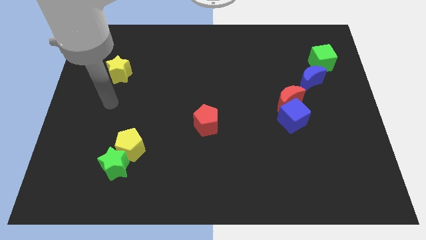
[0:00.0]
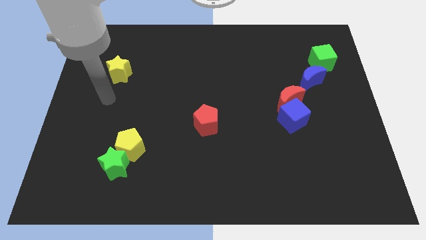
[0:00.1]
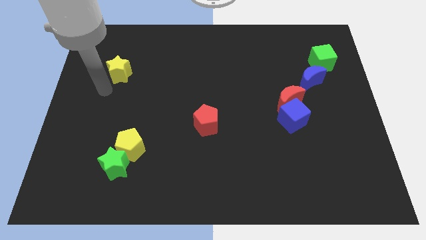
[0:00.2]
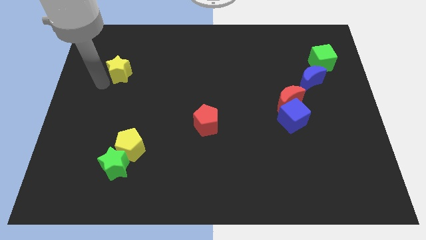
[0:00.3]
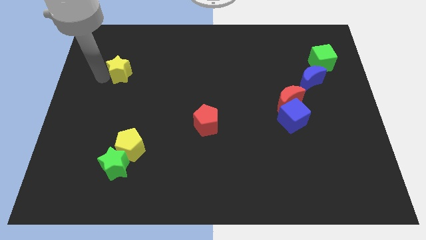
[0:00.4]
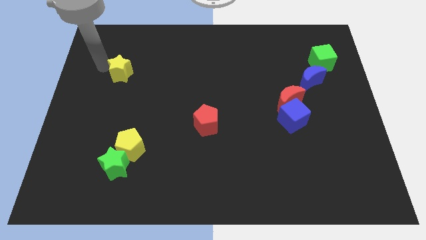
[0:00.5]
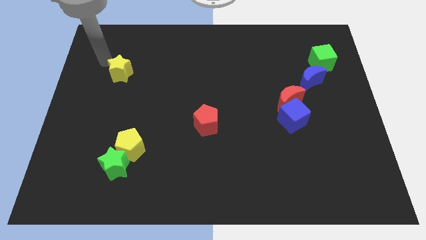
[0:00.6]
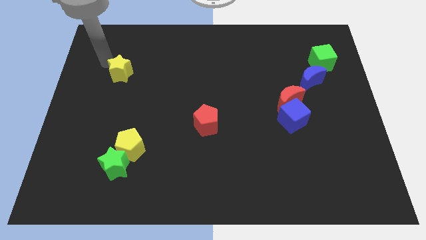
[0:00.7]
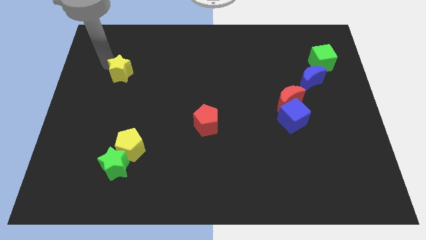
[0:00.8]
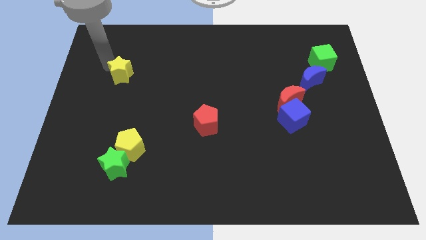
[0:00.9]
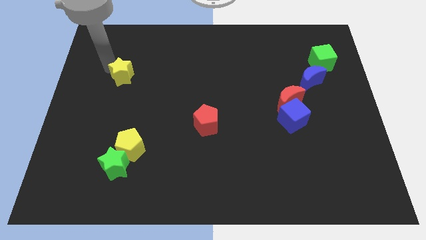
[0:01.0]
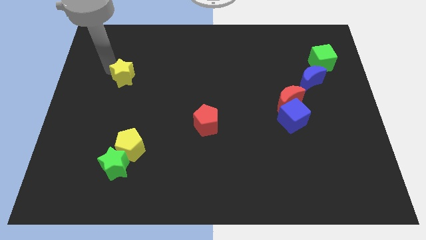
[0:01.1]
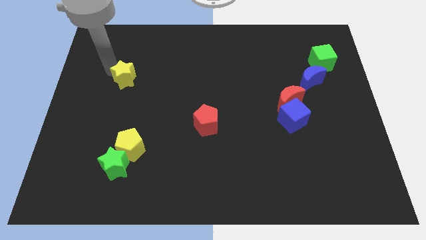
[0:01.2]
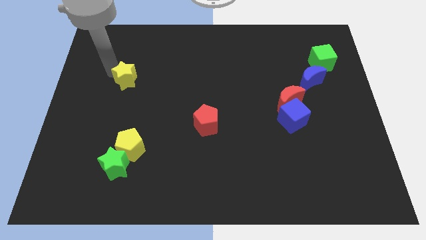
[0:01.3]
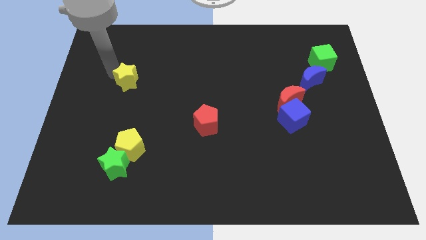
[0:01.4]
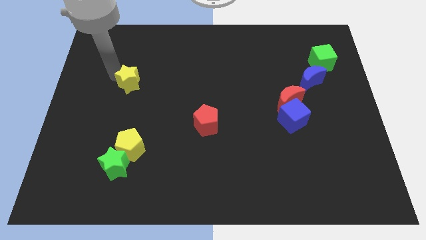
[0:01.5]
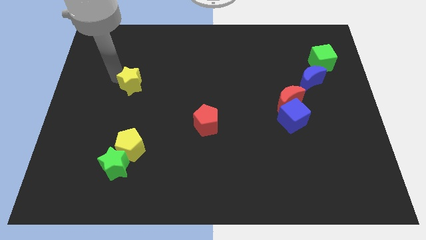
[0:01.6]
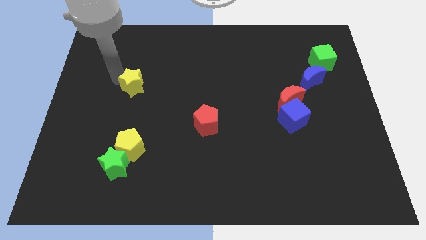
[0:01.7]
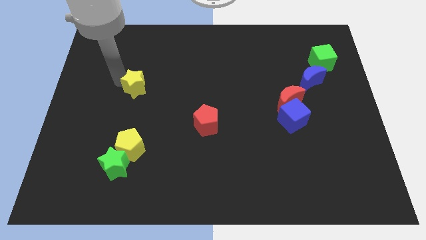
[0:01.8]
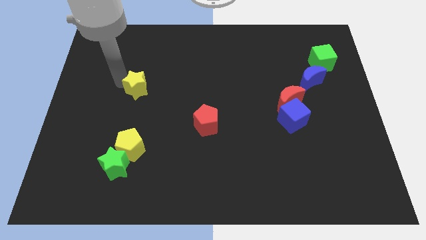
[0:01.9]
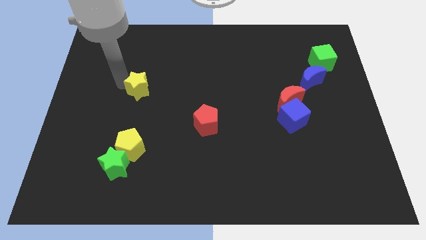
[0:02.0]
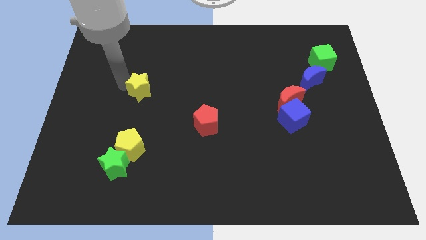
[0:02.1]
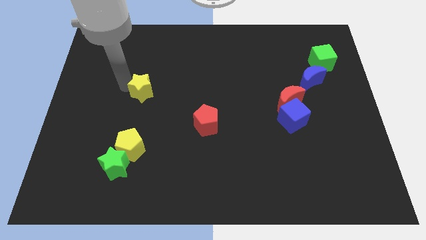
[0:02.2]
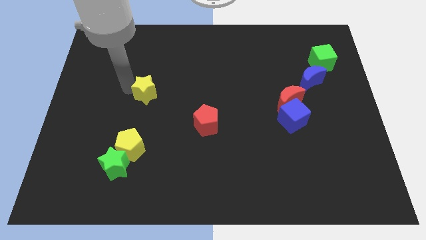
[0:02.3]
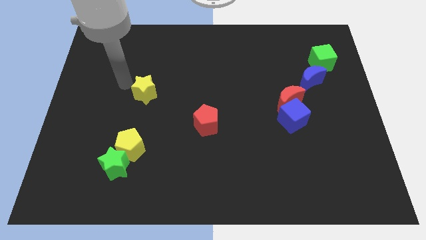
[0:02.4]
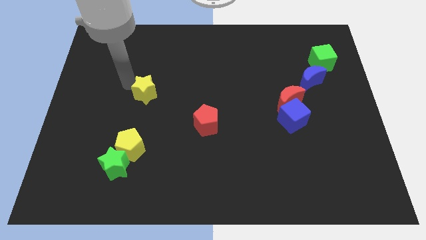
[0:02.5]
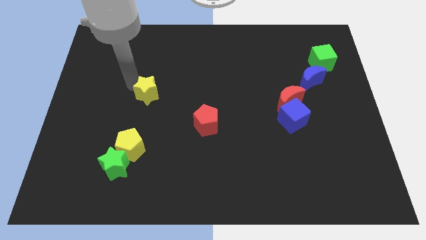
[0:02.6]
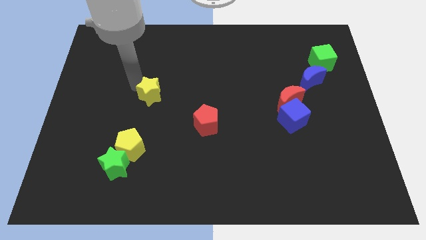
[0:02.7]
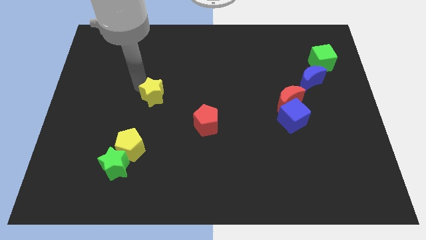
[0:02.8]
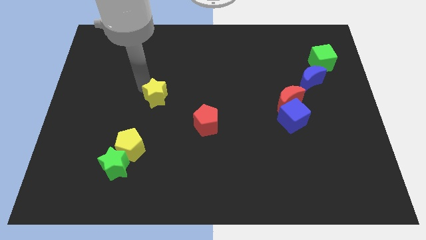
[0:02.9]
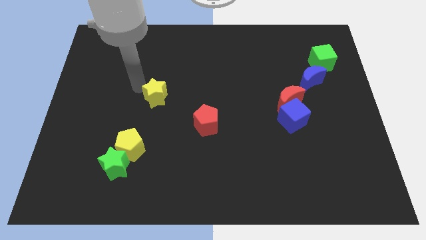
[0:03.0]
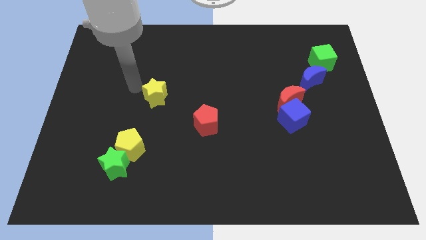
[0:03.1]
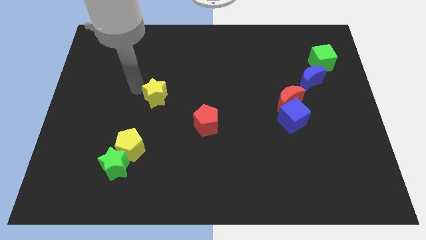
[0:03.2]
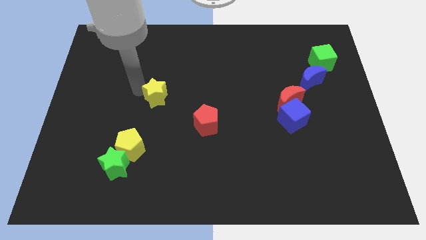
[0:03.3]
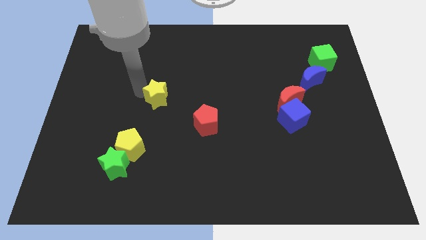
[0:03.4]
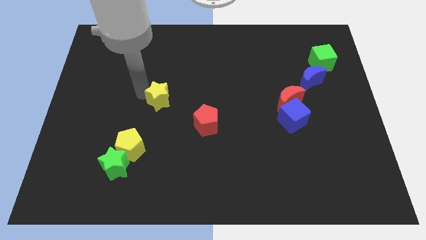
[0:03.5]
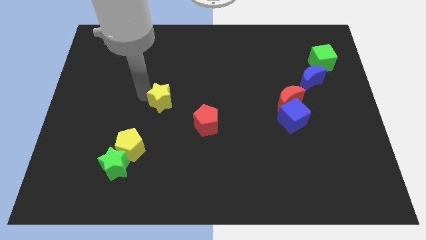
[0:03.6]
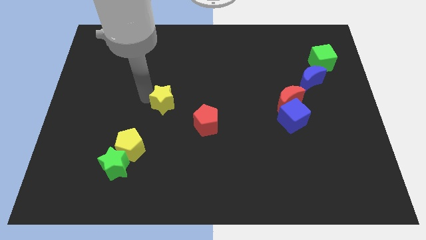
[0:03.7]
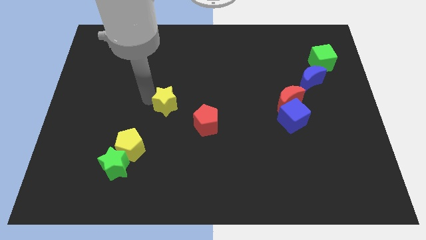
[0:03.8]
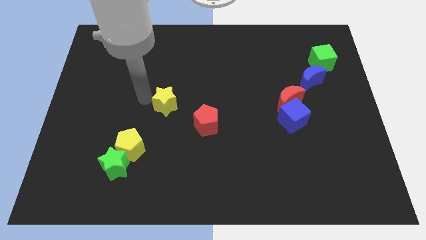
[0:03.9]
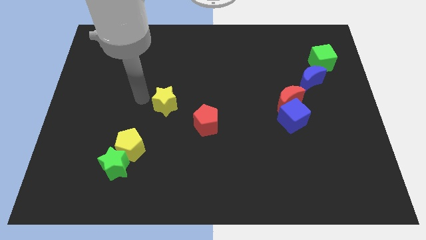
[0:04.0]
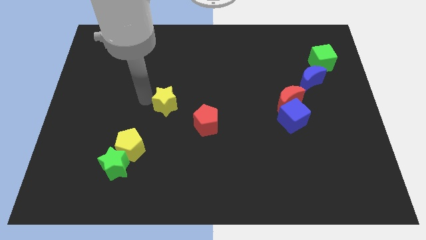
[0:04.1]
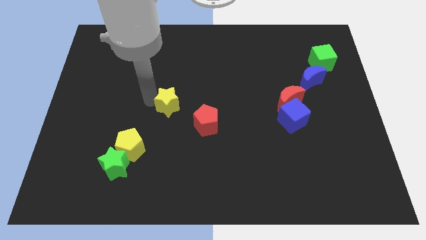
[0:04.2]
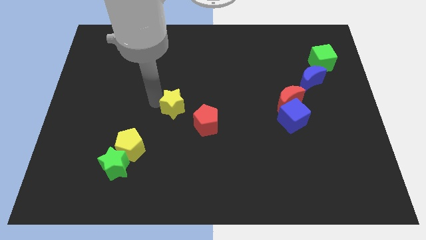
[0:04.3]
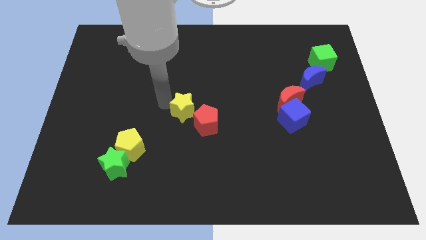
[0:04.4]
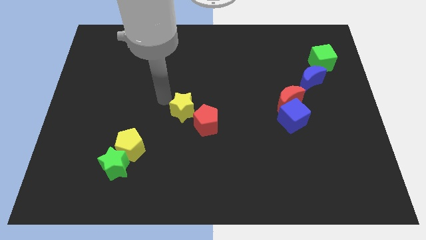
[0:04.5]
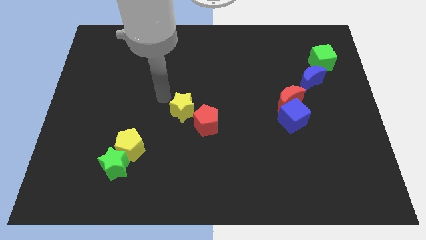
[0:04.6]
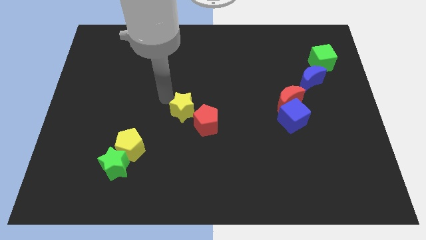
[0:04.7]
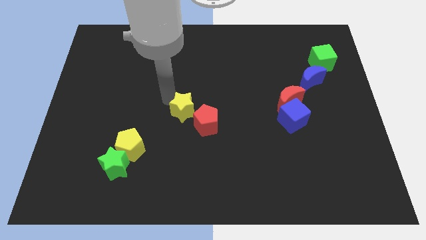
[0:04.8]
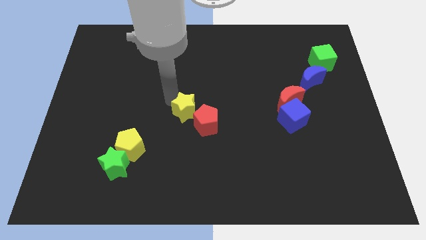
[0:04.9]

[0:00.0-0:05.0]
put the yellow star next to the red pentagon

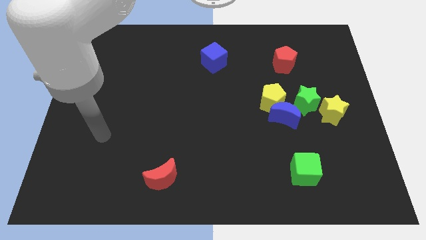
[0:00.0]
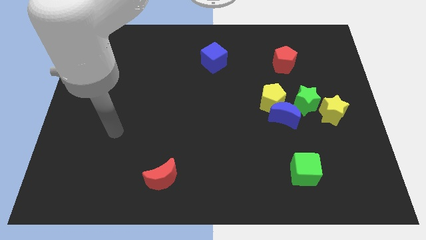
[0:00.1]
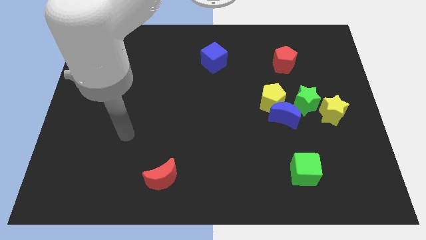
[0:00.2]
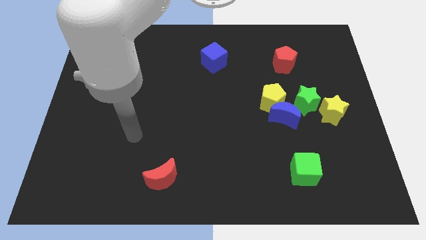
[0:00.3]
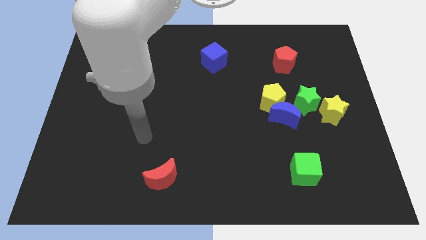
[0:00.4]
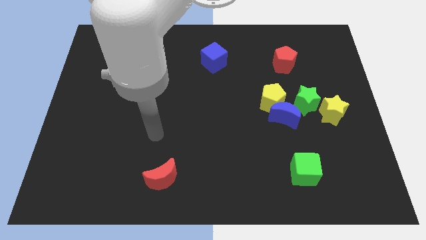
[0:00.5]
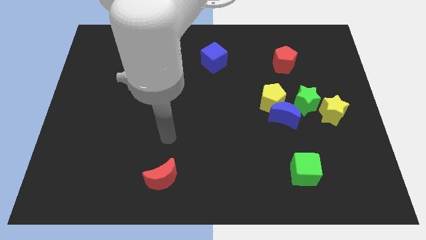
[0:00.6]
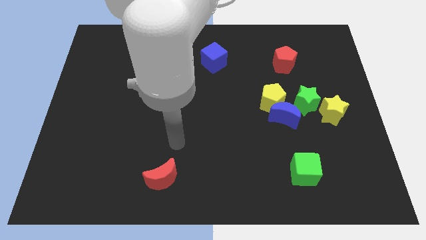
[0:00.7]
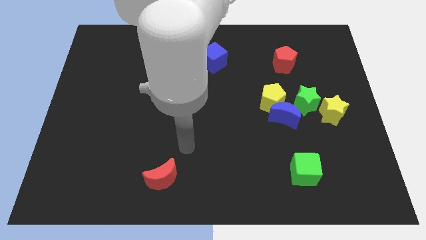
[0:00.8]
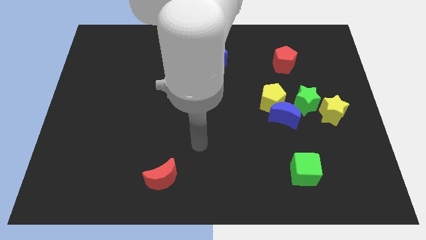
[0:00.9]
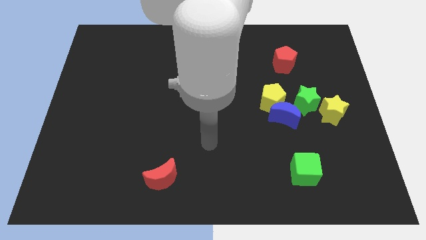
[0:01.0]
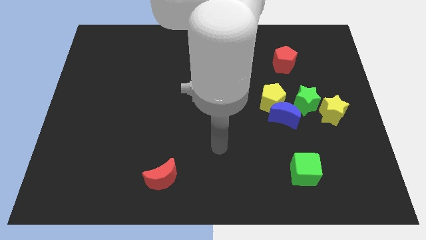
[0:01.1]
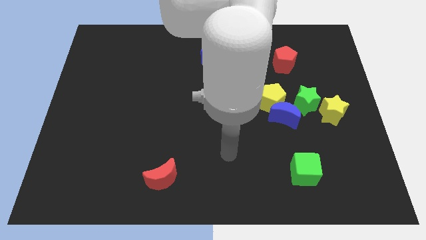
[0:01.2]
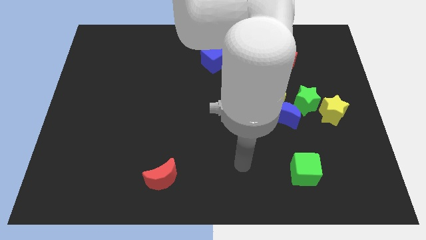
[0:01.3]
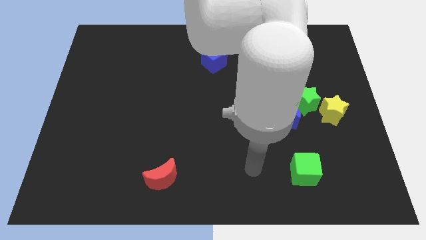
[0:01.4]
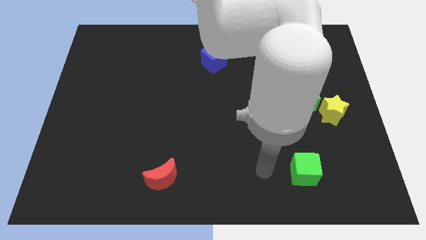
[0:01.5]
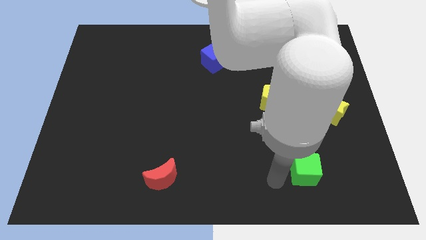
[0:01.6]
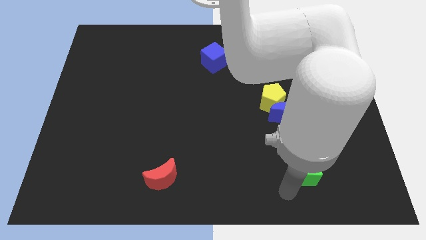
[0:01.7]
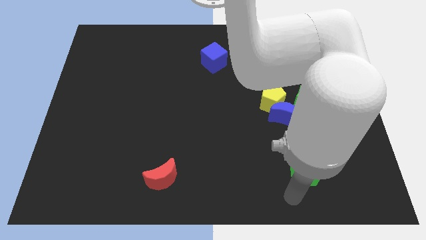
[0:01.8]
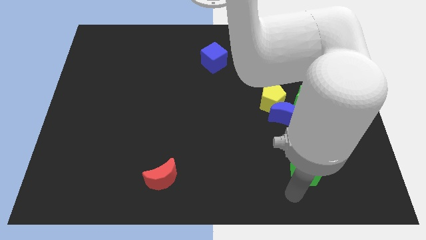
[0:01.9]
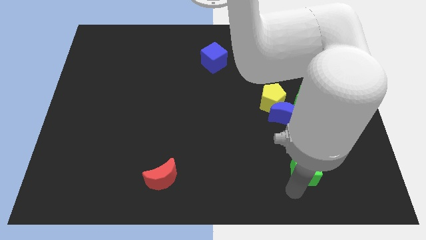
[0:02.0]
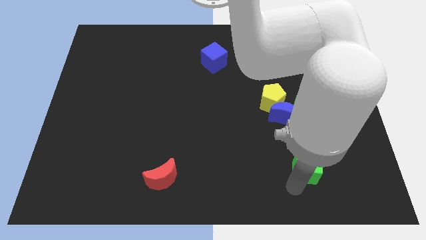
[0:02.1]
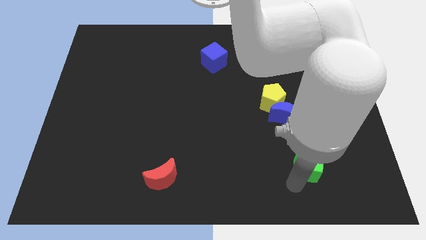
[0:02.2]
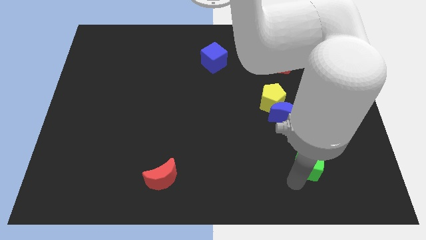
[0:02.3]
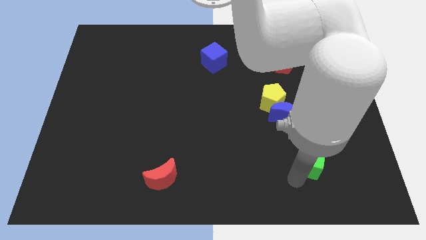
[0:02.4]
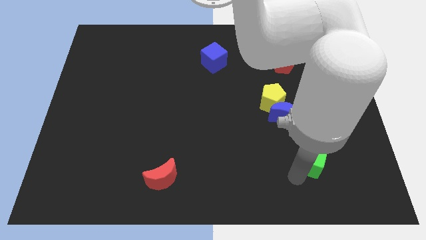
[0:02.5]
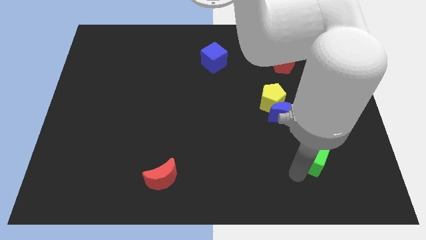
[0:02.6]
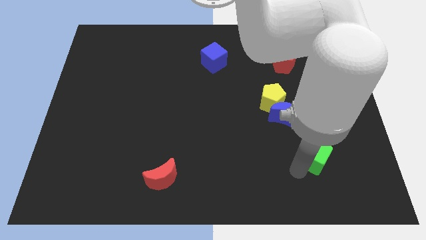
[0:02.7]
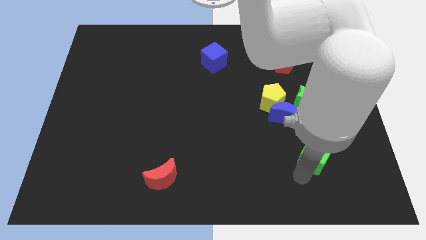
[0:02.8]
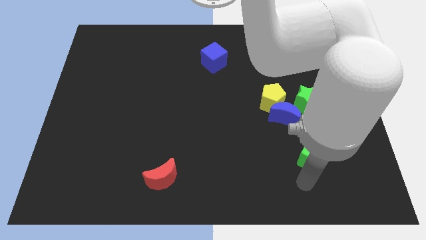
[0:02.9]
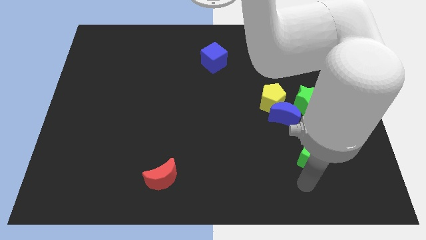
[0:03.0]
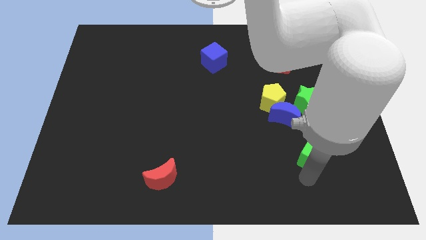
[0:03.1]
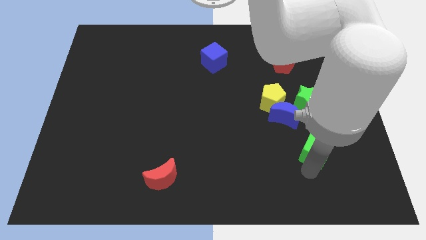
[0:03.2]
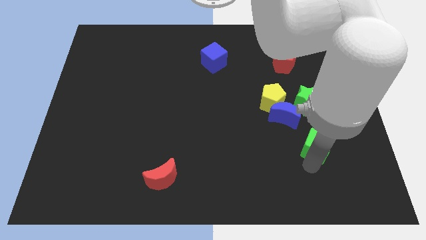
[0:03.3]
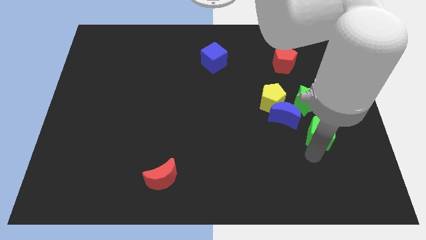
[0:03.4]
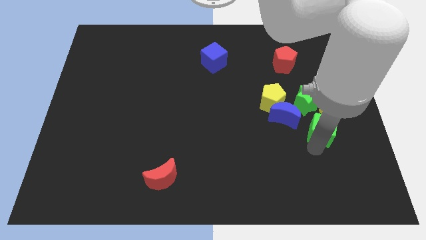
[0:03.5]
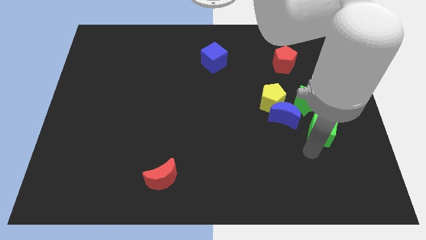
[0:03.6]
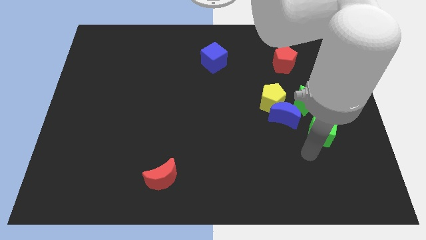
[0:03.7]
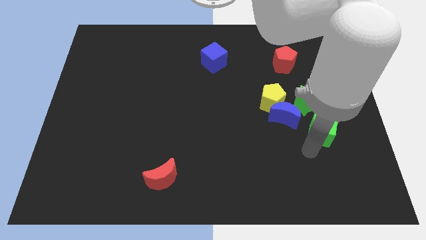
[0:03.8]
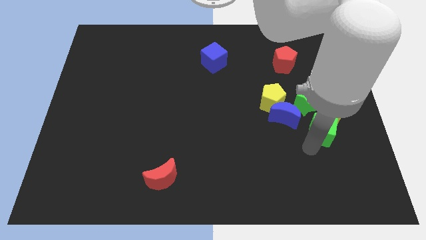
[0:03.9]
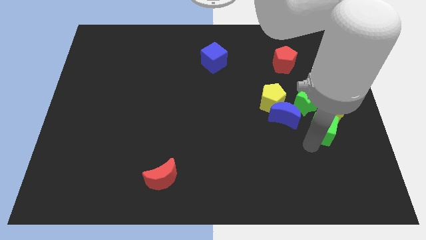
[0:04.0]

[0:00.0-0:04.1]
push the green cube next to the yellow star
